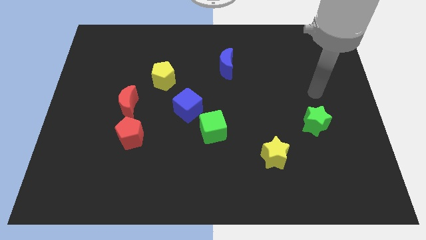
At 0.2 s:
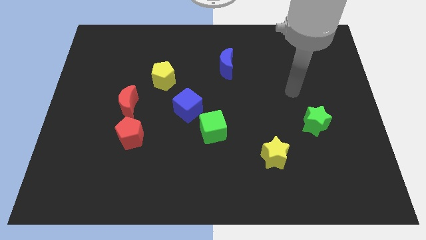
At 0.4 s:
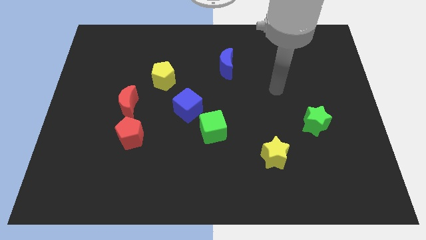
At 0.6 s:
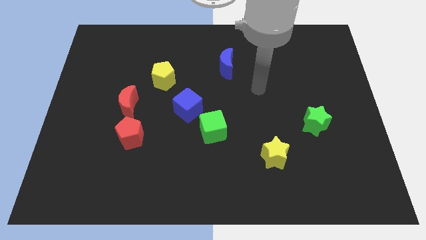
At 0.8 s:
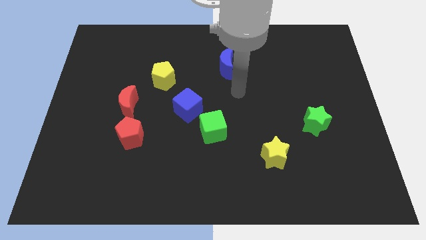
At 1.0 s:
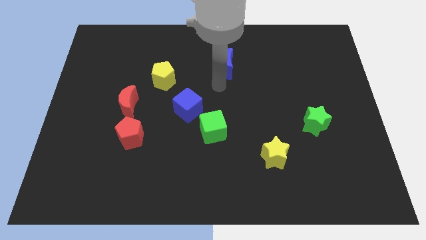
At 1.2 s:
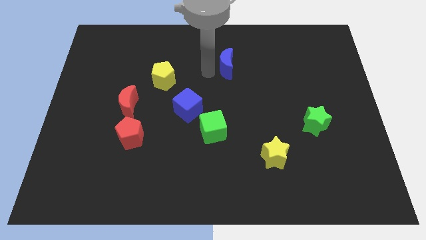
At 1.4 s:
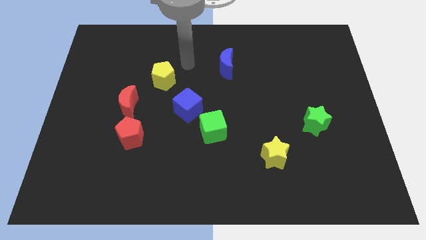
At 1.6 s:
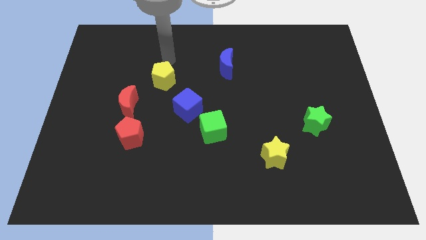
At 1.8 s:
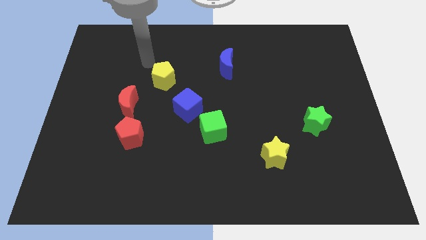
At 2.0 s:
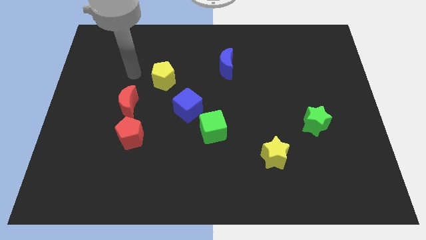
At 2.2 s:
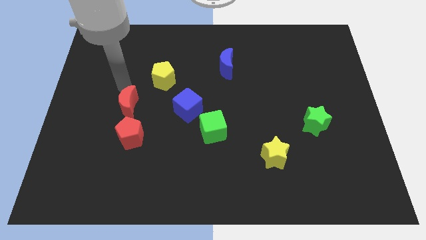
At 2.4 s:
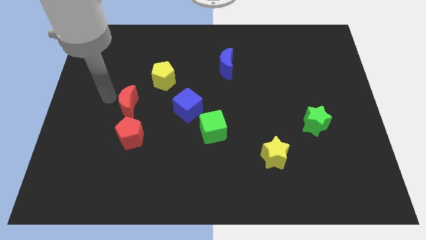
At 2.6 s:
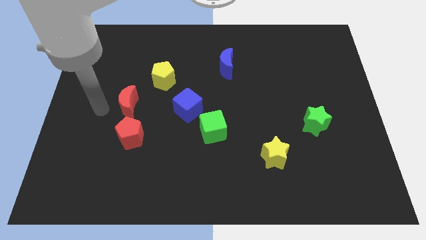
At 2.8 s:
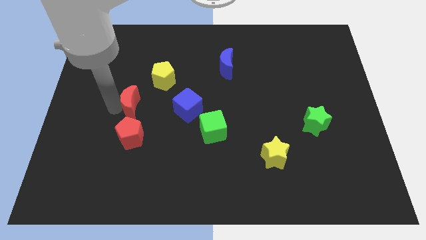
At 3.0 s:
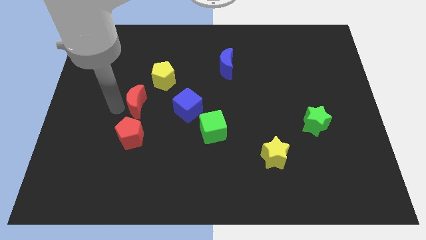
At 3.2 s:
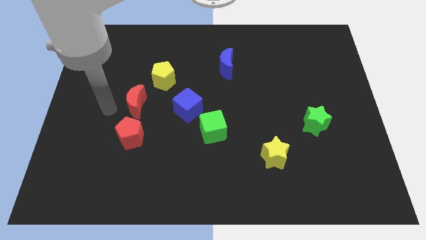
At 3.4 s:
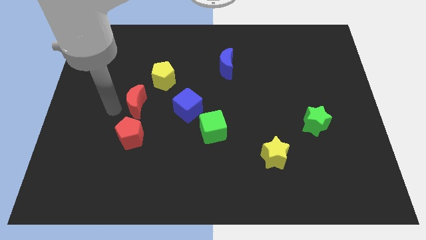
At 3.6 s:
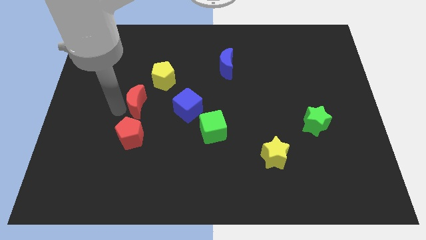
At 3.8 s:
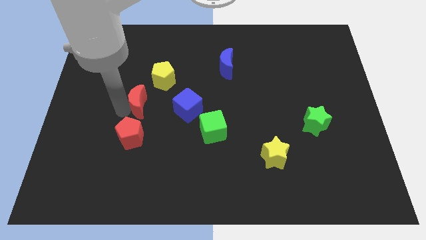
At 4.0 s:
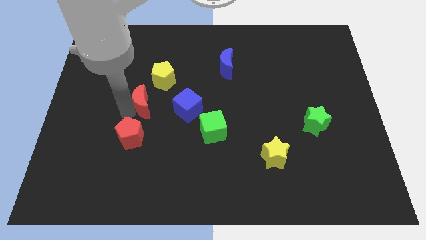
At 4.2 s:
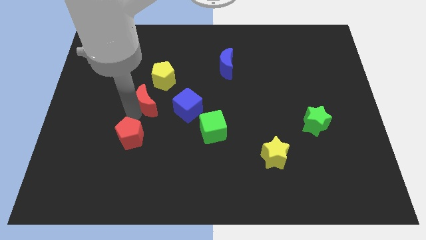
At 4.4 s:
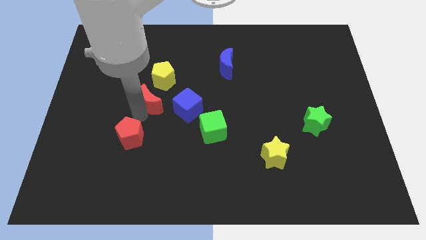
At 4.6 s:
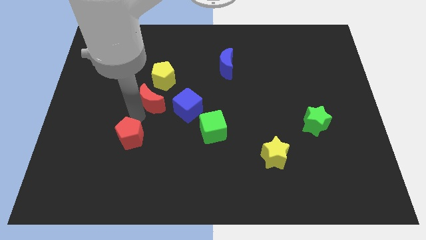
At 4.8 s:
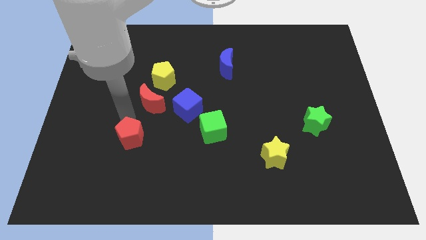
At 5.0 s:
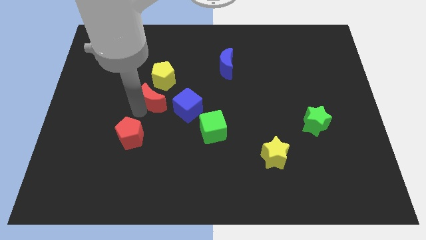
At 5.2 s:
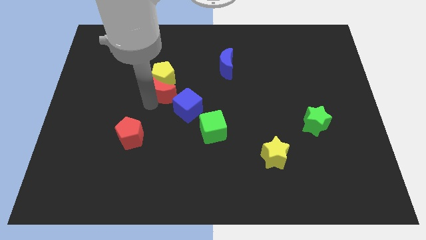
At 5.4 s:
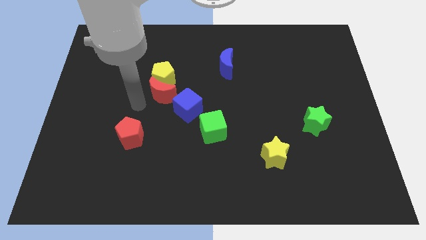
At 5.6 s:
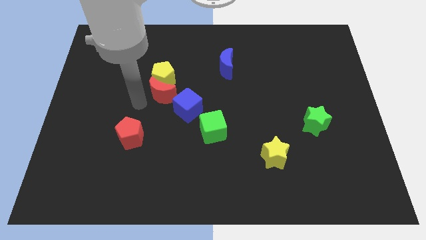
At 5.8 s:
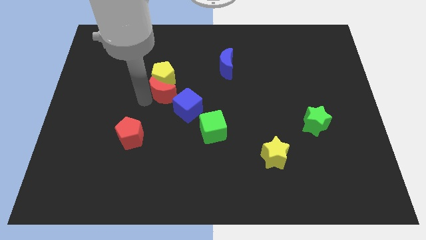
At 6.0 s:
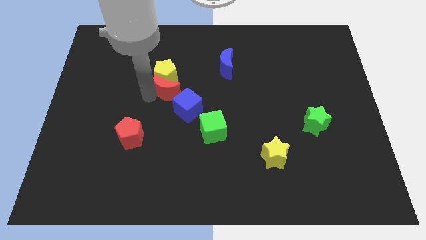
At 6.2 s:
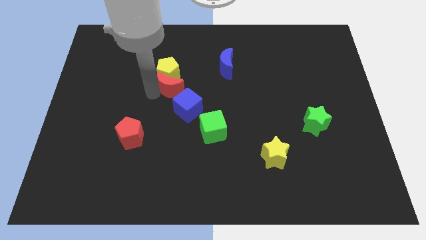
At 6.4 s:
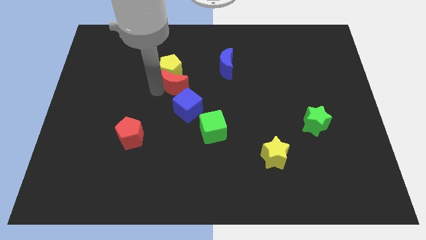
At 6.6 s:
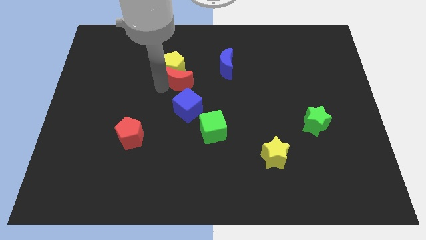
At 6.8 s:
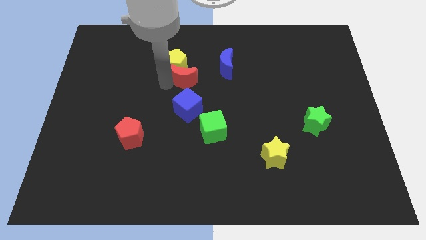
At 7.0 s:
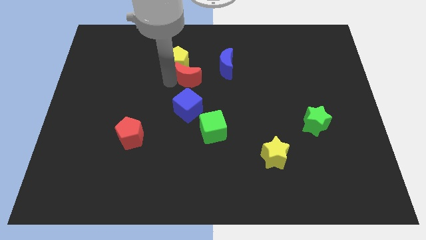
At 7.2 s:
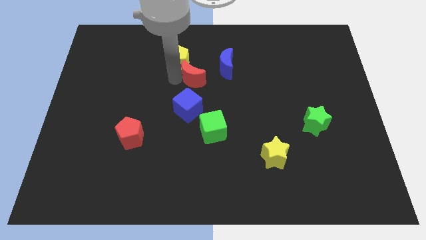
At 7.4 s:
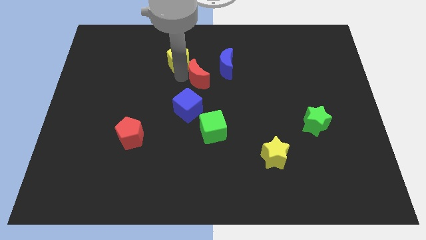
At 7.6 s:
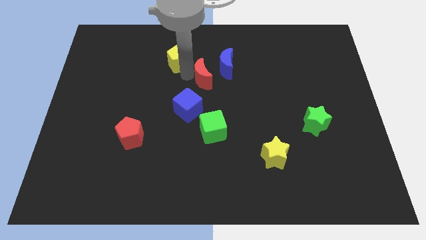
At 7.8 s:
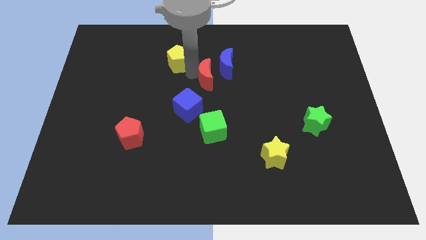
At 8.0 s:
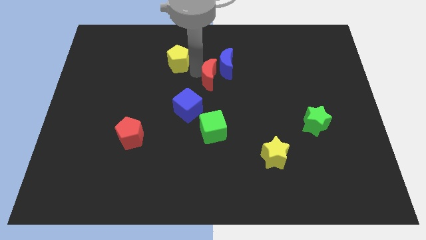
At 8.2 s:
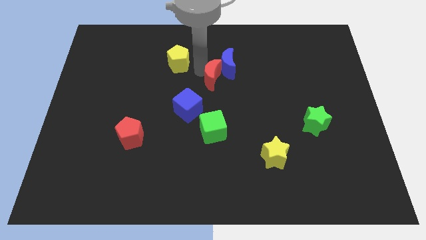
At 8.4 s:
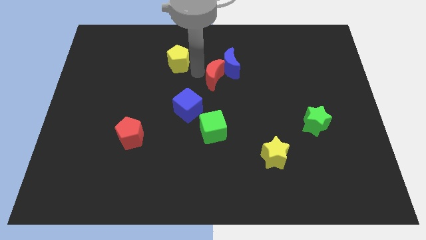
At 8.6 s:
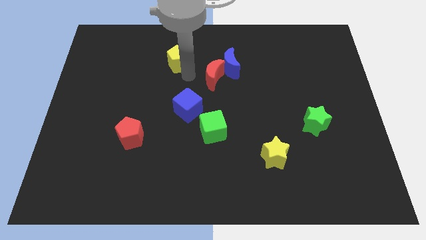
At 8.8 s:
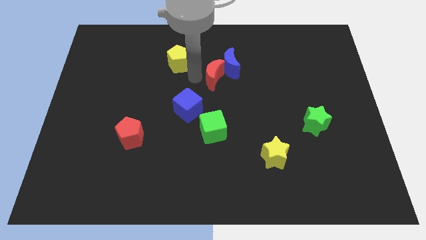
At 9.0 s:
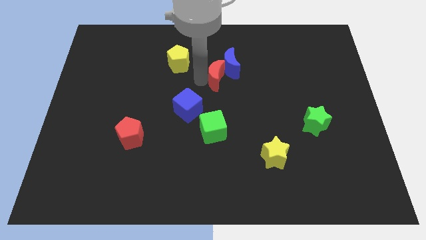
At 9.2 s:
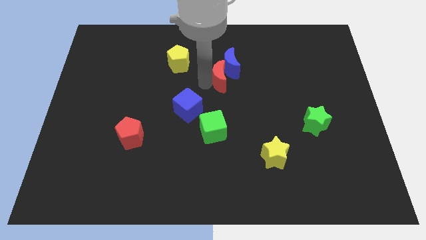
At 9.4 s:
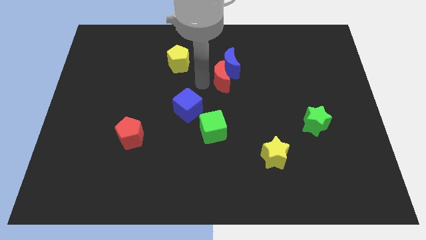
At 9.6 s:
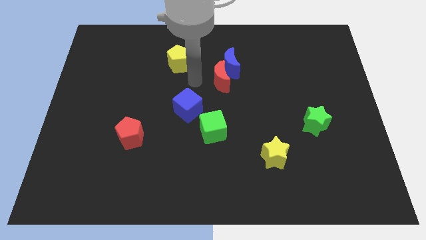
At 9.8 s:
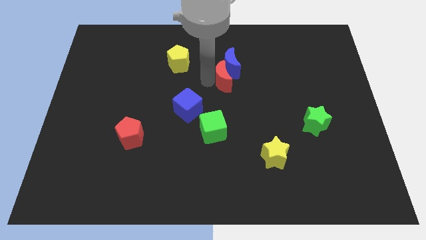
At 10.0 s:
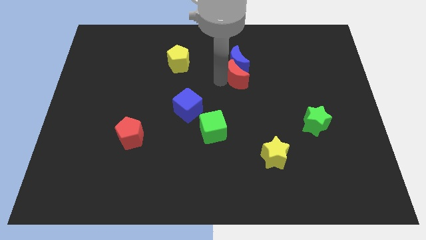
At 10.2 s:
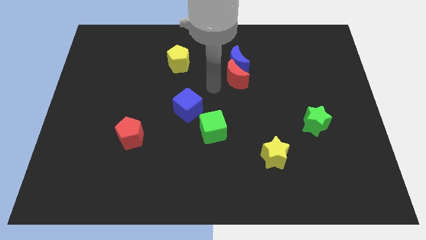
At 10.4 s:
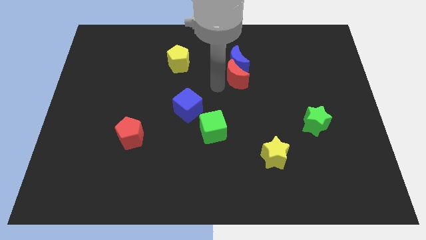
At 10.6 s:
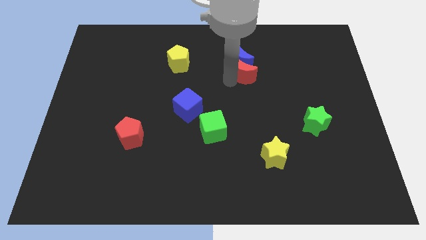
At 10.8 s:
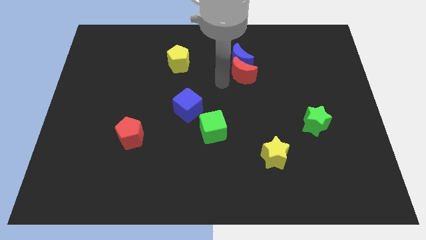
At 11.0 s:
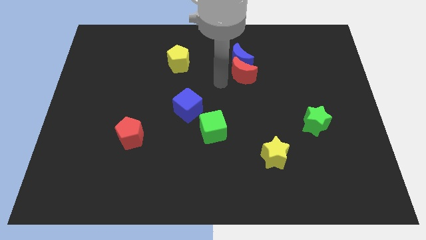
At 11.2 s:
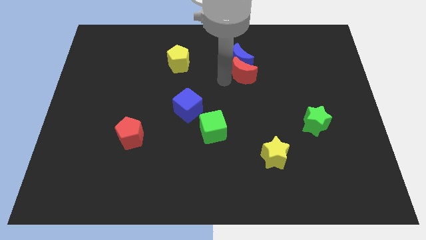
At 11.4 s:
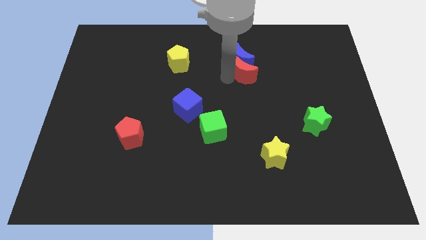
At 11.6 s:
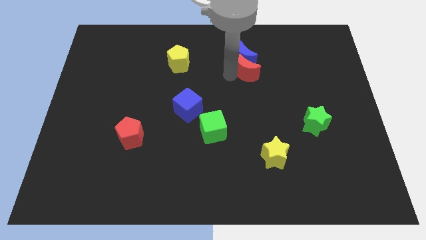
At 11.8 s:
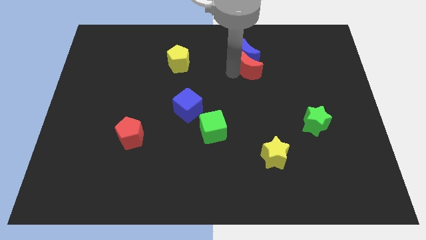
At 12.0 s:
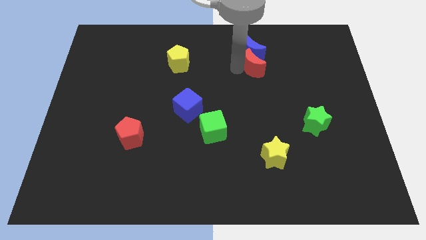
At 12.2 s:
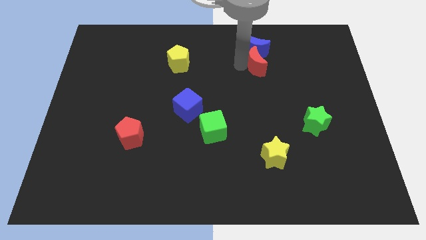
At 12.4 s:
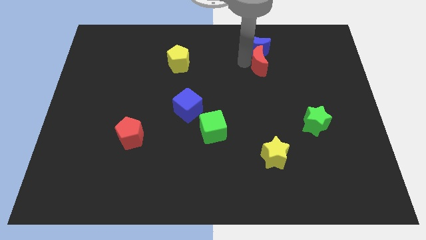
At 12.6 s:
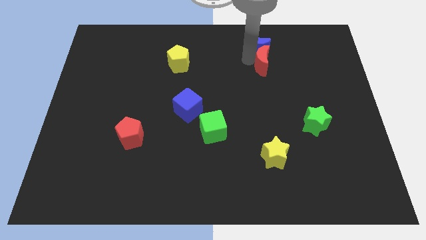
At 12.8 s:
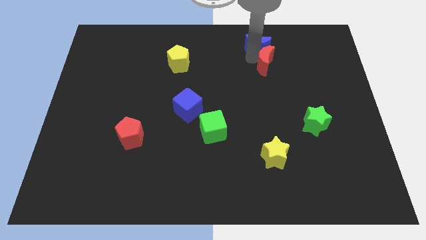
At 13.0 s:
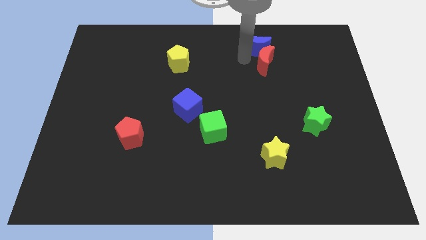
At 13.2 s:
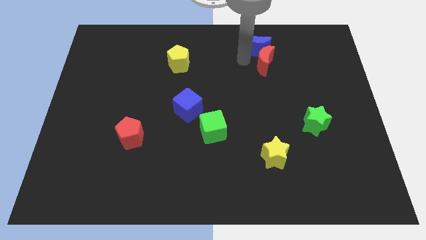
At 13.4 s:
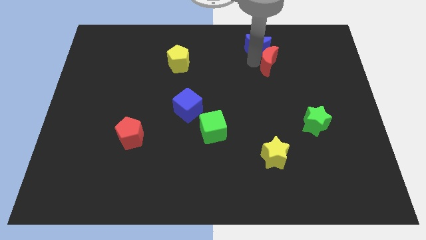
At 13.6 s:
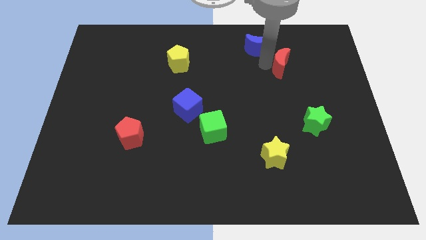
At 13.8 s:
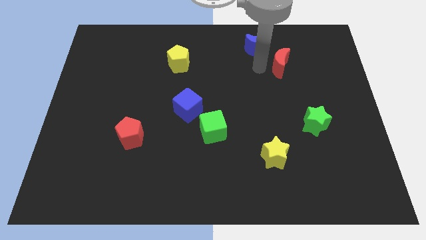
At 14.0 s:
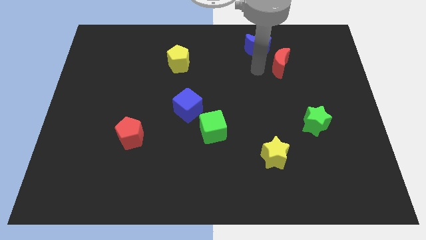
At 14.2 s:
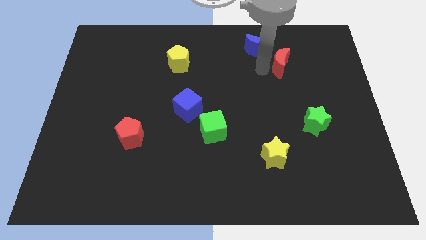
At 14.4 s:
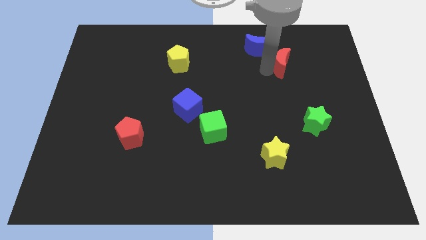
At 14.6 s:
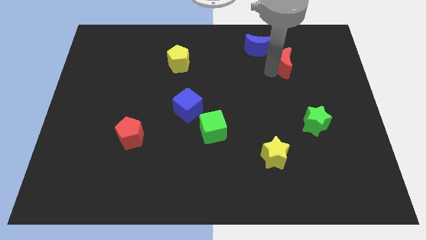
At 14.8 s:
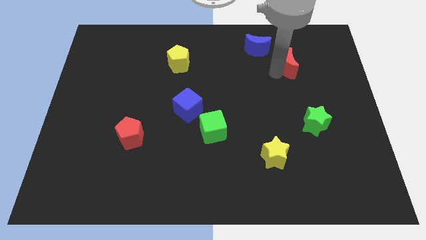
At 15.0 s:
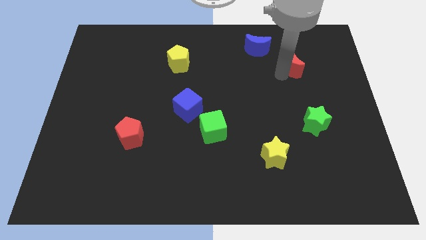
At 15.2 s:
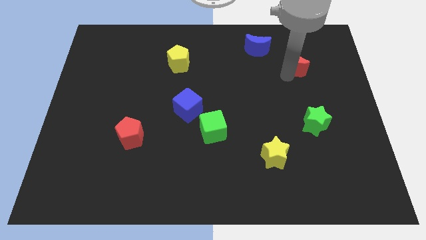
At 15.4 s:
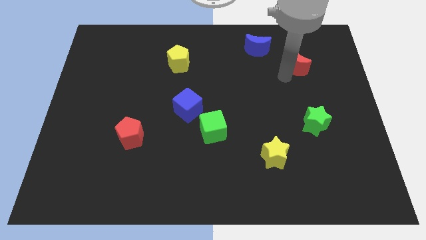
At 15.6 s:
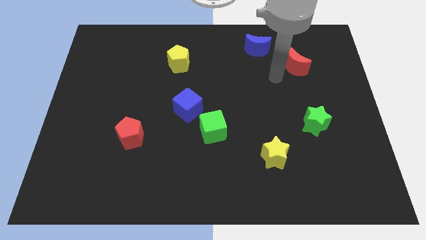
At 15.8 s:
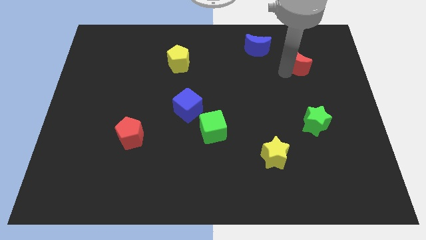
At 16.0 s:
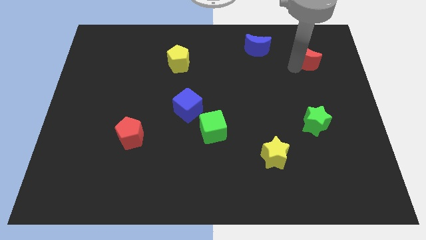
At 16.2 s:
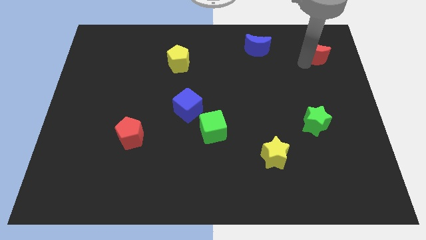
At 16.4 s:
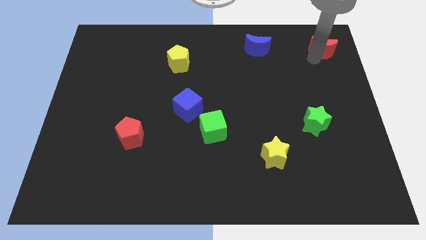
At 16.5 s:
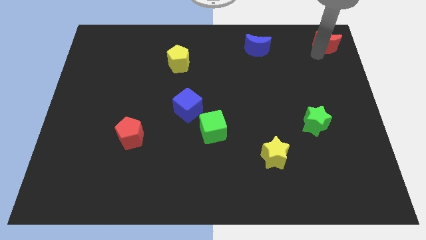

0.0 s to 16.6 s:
move the red moon to the top right
